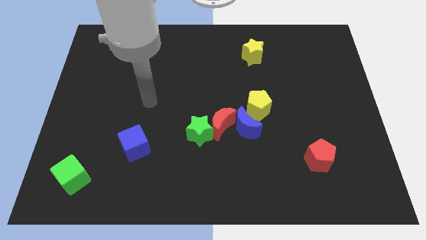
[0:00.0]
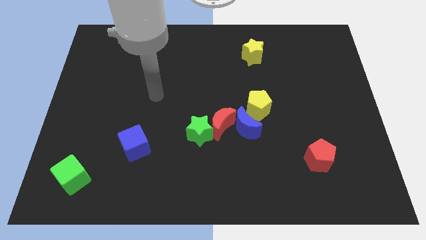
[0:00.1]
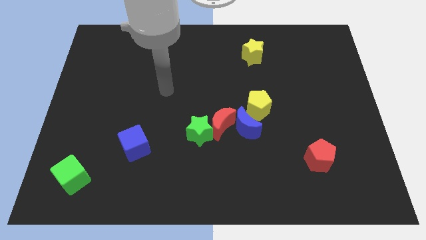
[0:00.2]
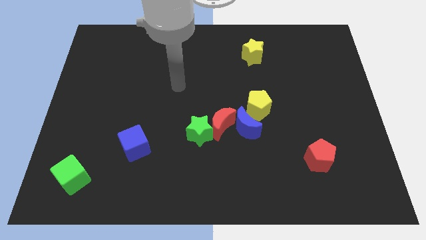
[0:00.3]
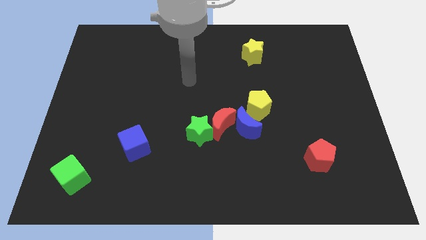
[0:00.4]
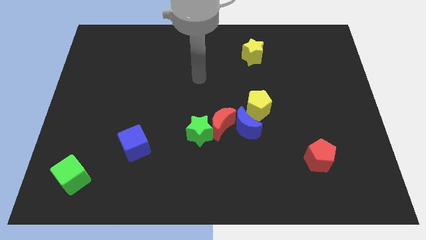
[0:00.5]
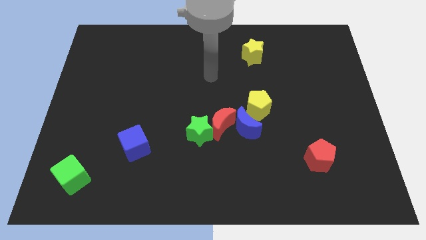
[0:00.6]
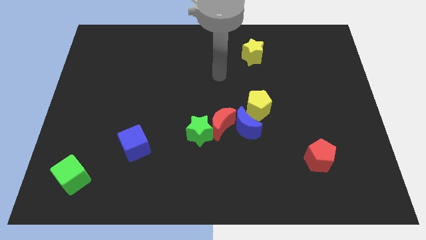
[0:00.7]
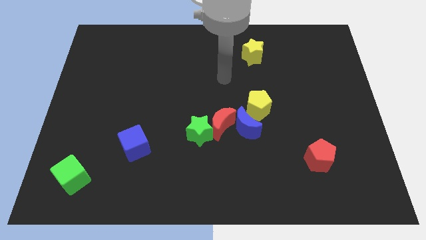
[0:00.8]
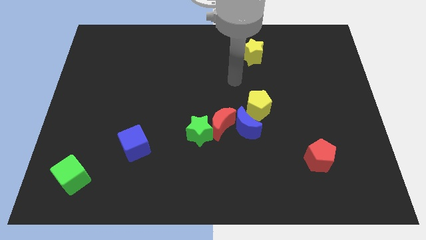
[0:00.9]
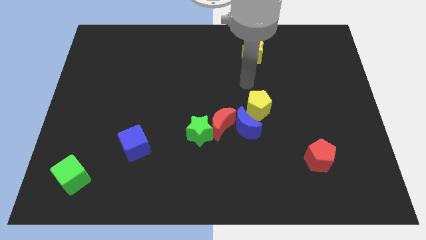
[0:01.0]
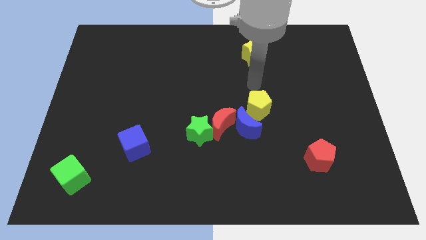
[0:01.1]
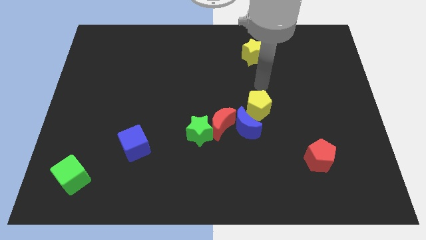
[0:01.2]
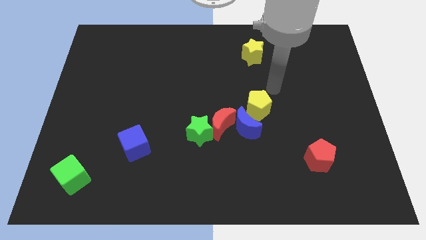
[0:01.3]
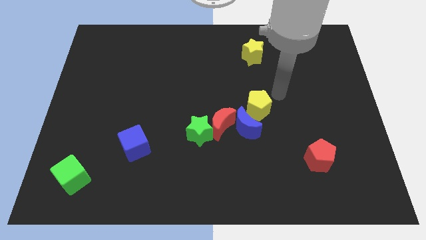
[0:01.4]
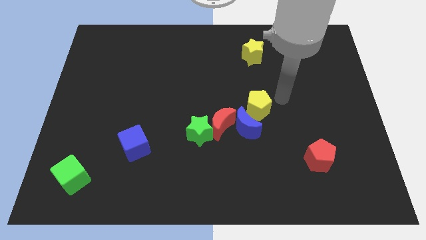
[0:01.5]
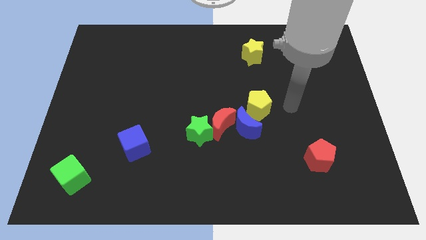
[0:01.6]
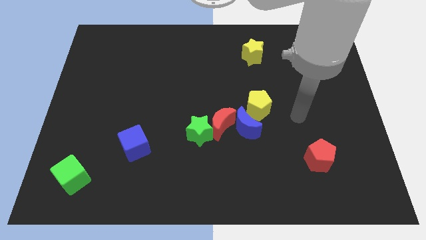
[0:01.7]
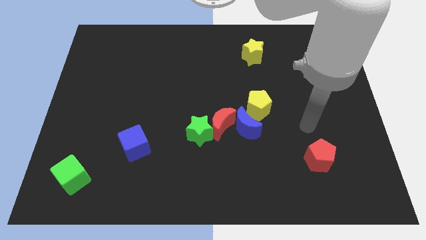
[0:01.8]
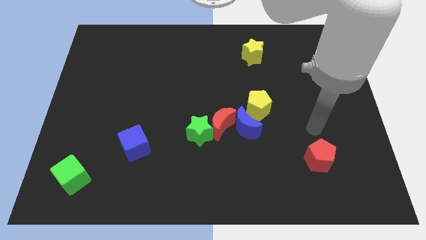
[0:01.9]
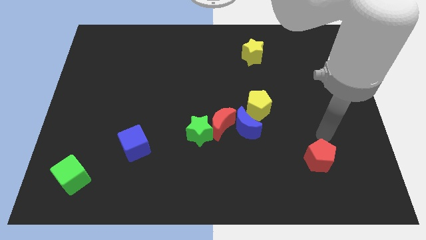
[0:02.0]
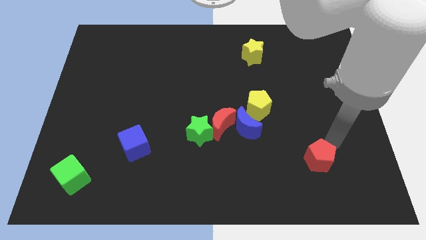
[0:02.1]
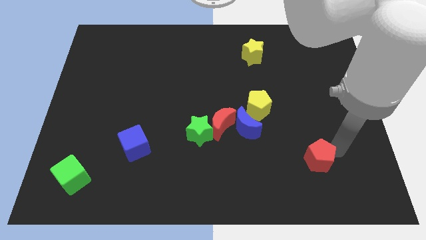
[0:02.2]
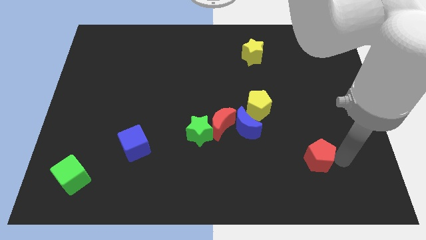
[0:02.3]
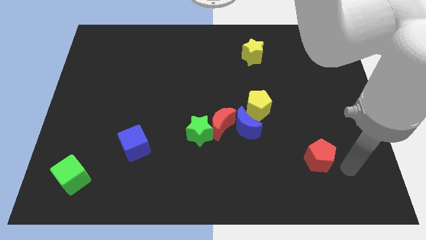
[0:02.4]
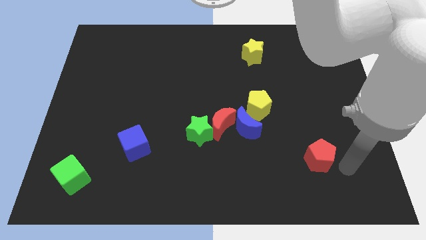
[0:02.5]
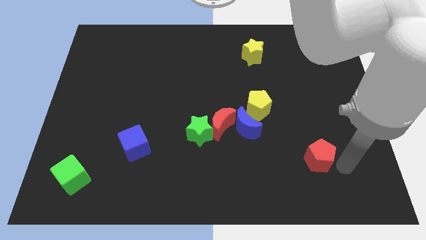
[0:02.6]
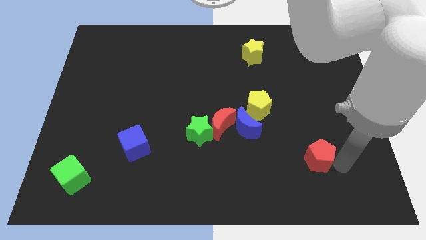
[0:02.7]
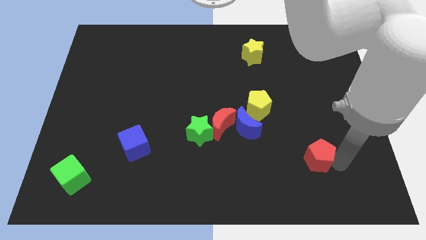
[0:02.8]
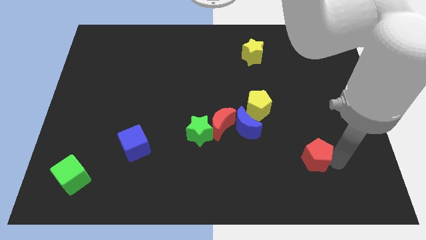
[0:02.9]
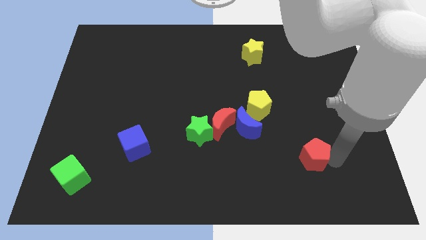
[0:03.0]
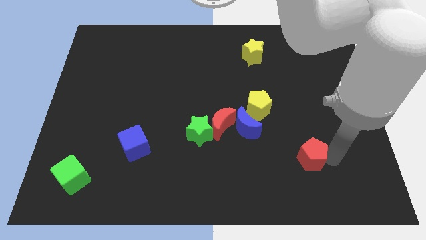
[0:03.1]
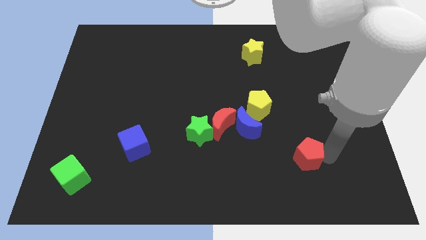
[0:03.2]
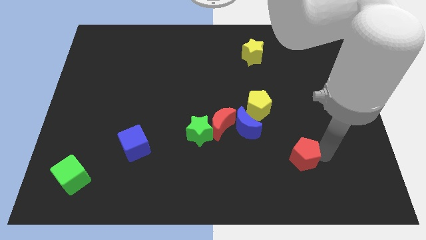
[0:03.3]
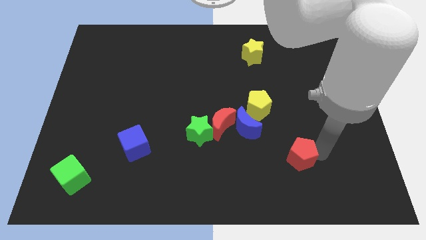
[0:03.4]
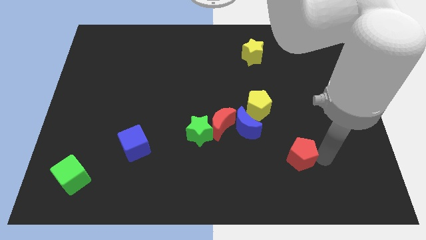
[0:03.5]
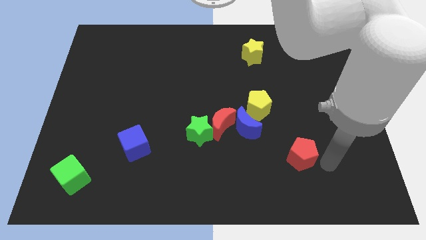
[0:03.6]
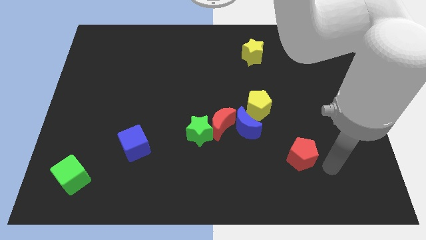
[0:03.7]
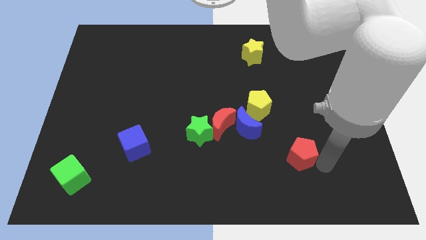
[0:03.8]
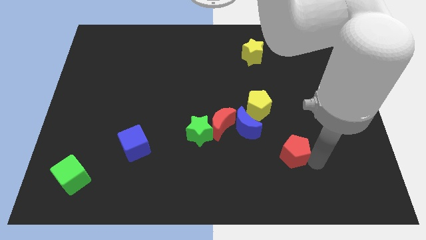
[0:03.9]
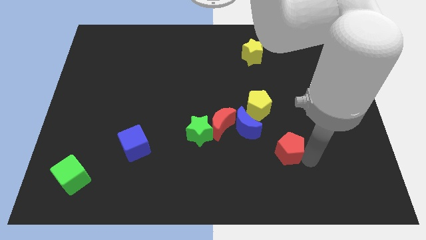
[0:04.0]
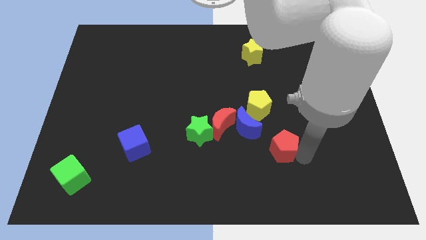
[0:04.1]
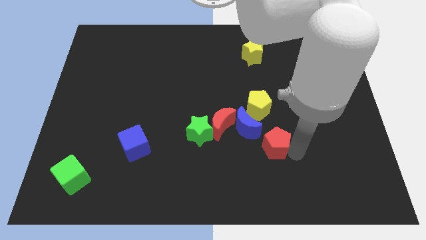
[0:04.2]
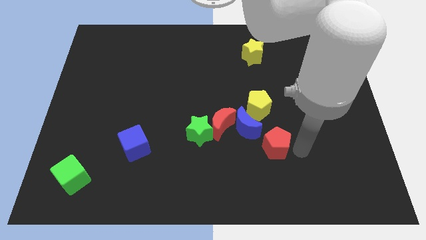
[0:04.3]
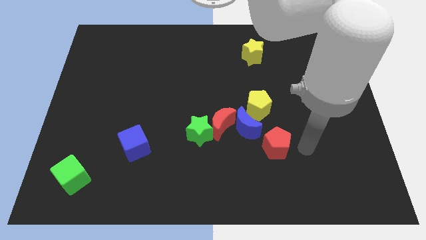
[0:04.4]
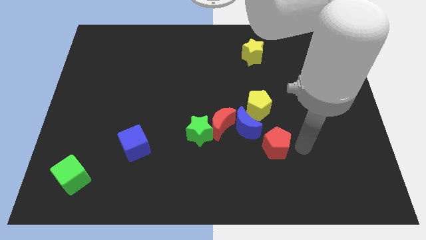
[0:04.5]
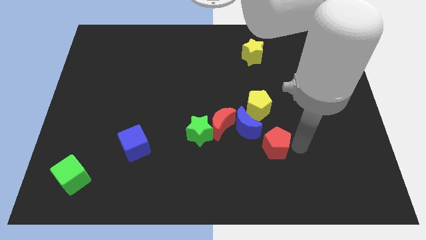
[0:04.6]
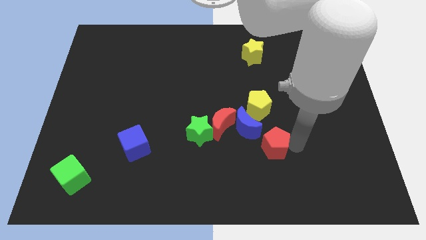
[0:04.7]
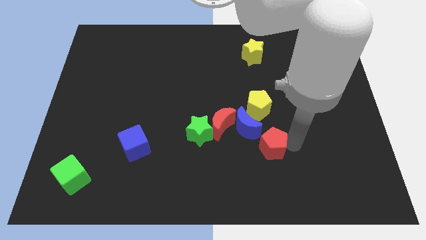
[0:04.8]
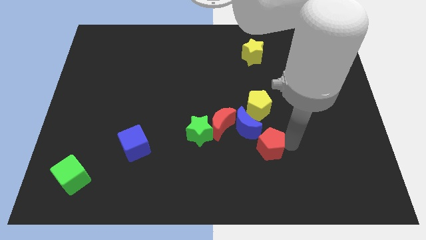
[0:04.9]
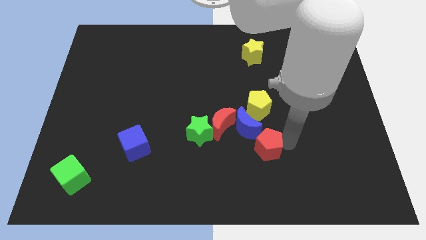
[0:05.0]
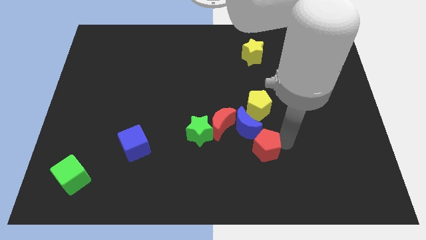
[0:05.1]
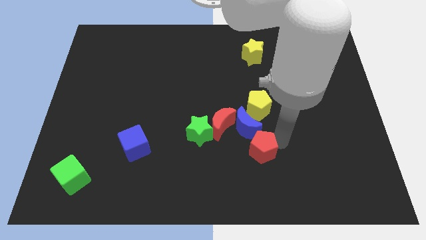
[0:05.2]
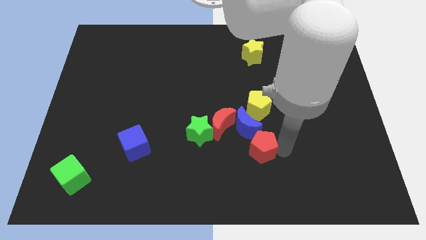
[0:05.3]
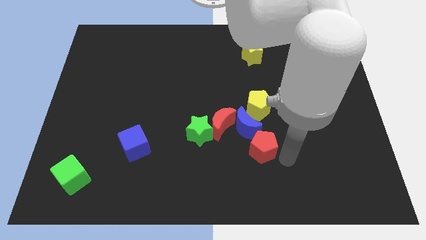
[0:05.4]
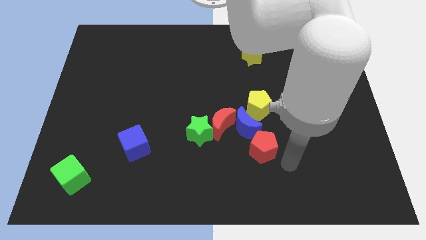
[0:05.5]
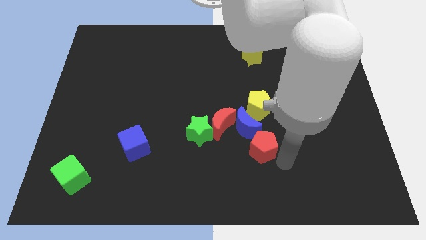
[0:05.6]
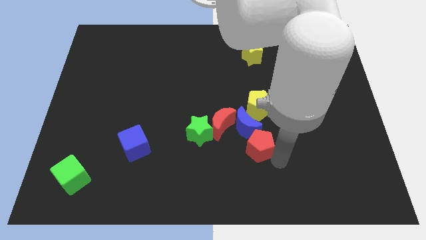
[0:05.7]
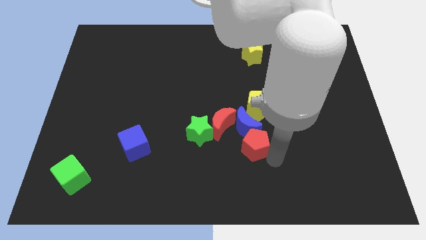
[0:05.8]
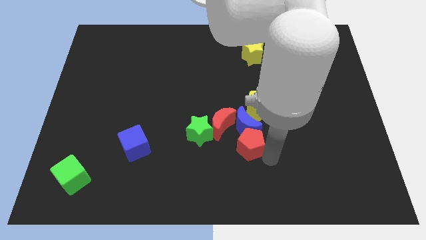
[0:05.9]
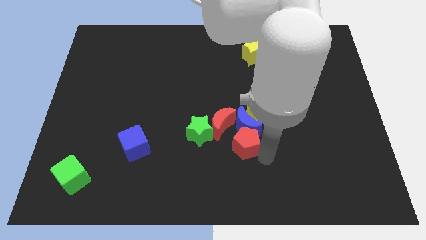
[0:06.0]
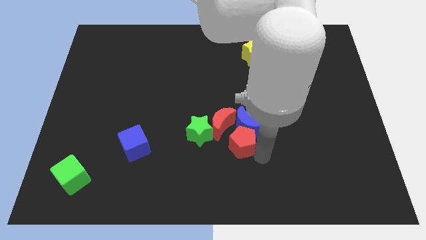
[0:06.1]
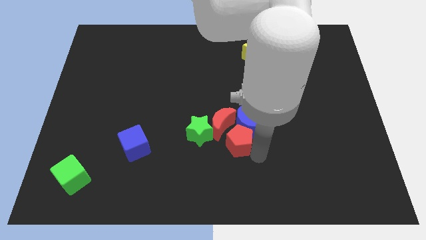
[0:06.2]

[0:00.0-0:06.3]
put the red pentagon to the red moon

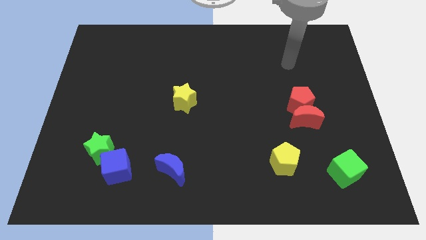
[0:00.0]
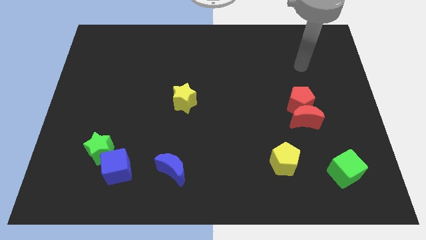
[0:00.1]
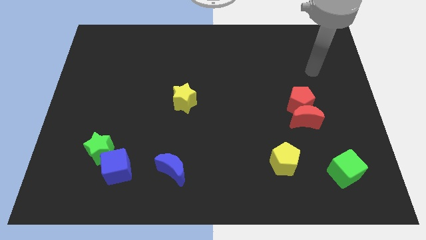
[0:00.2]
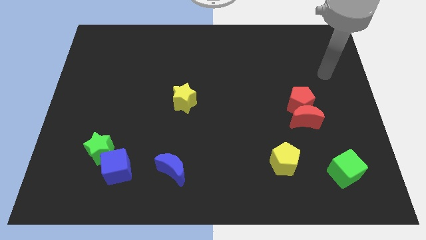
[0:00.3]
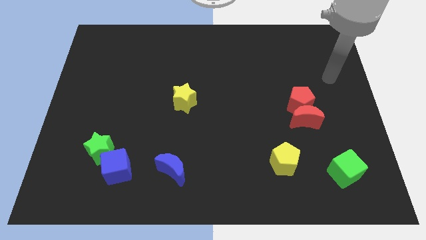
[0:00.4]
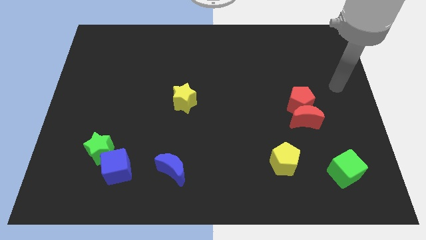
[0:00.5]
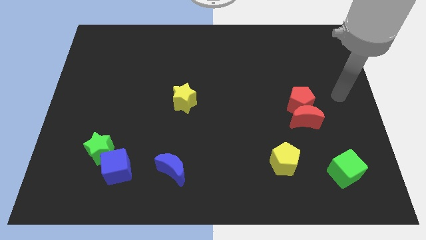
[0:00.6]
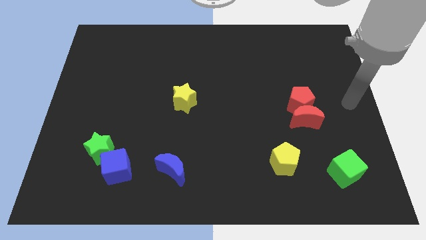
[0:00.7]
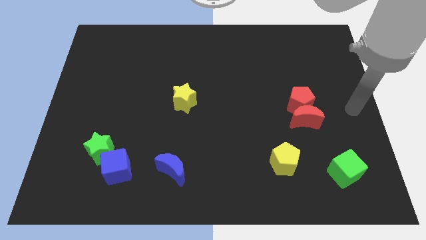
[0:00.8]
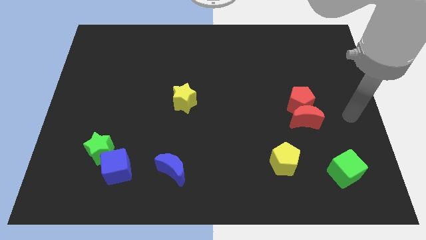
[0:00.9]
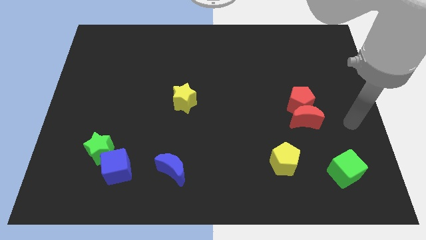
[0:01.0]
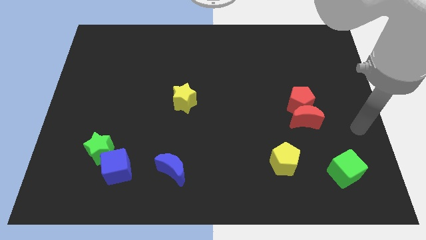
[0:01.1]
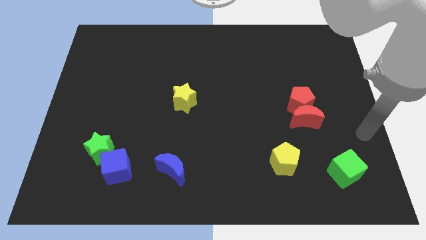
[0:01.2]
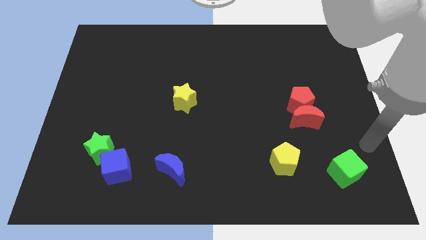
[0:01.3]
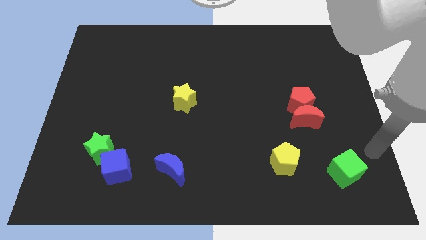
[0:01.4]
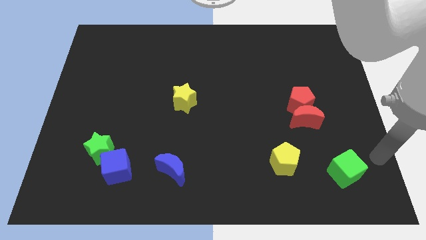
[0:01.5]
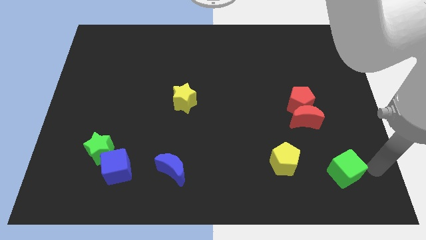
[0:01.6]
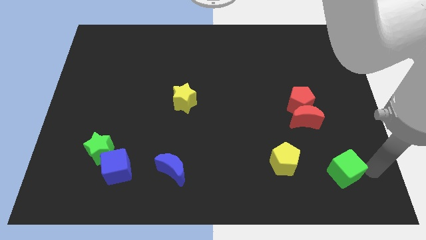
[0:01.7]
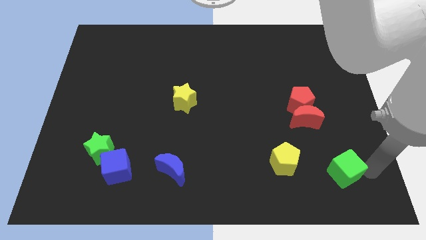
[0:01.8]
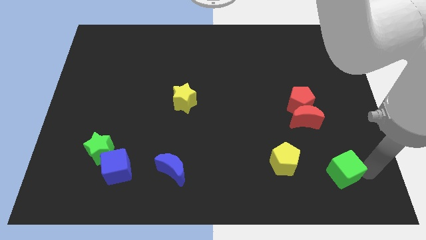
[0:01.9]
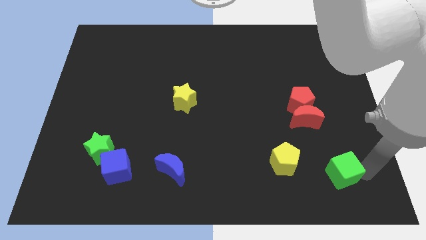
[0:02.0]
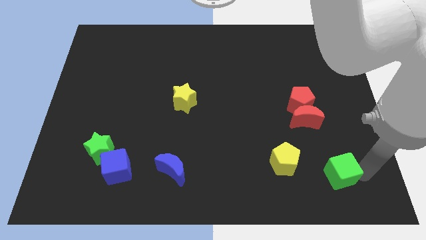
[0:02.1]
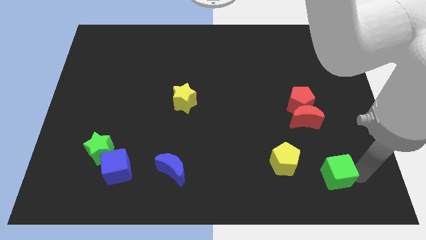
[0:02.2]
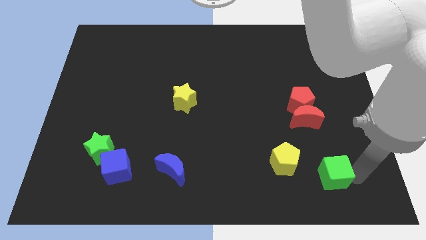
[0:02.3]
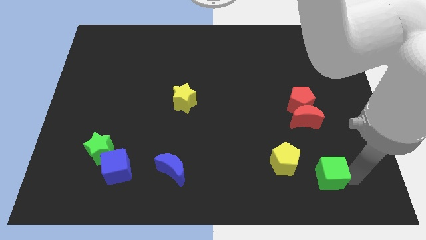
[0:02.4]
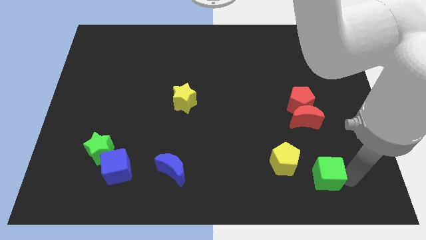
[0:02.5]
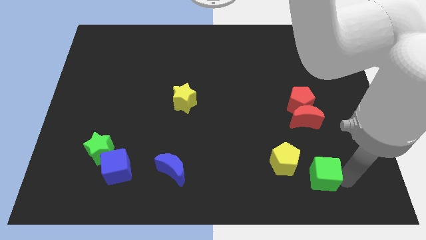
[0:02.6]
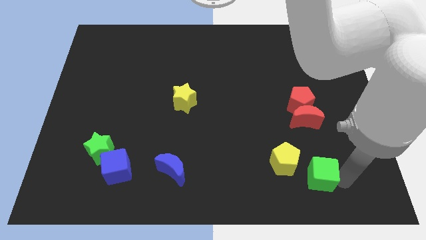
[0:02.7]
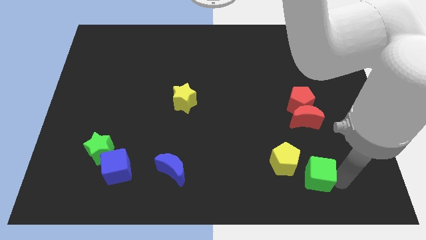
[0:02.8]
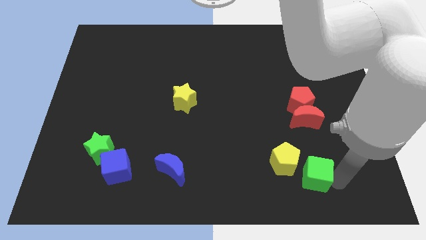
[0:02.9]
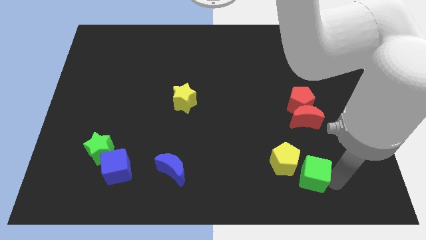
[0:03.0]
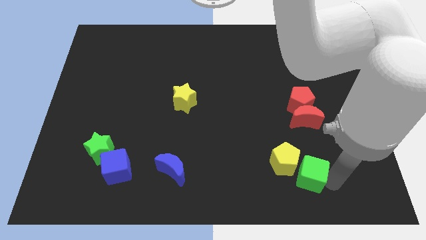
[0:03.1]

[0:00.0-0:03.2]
put the green cube close to the yellow pentagon
